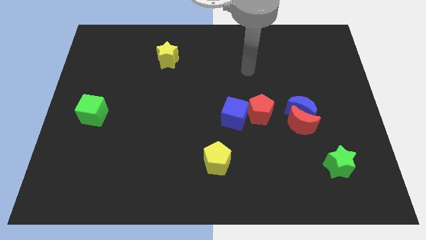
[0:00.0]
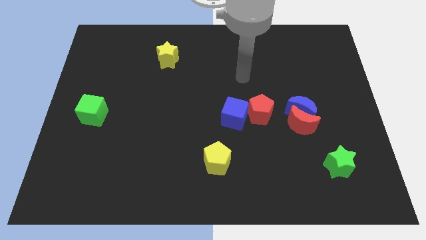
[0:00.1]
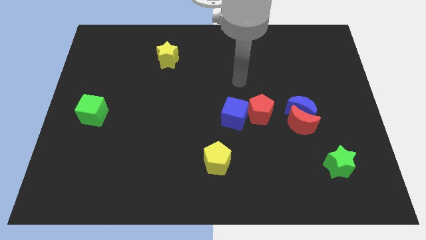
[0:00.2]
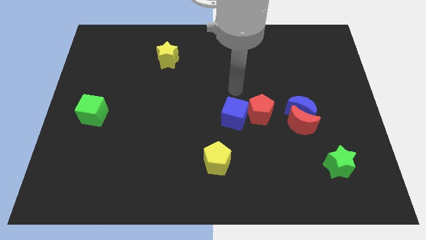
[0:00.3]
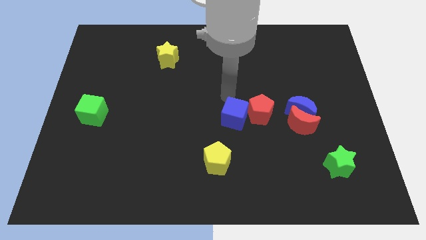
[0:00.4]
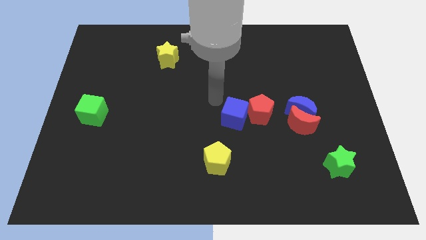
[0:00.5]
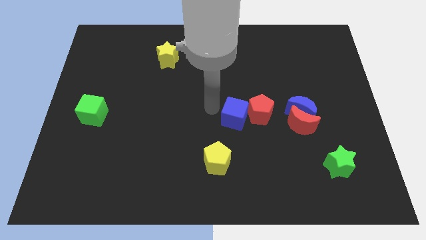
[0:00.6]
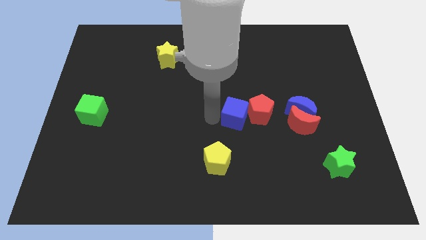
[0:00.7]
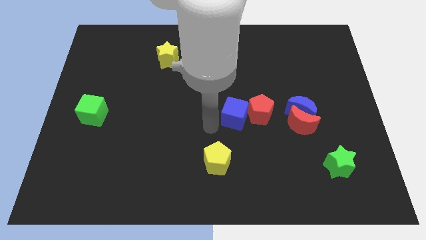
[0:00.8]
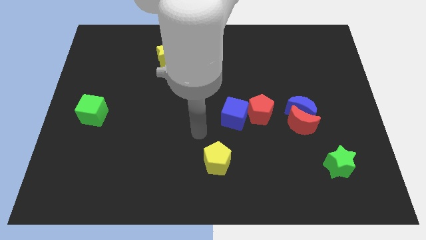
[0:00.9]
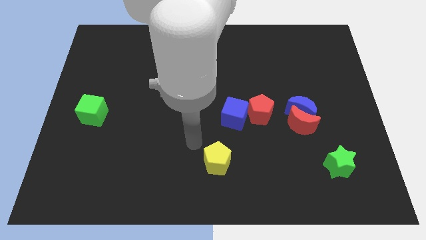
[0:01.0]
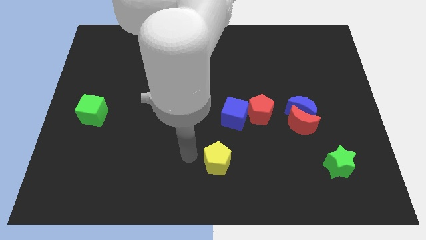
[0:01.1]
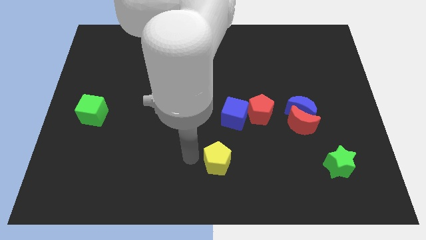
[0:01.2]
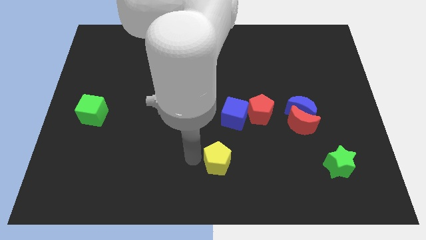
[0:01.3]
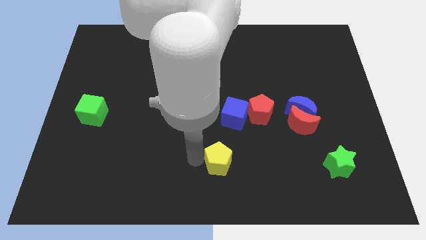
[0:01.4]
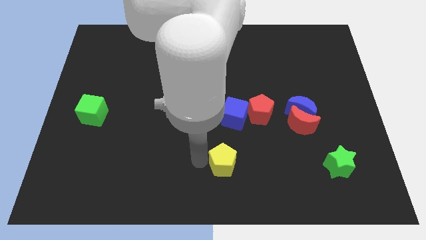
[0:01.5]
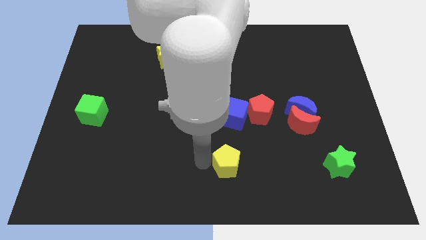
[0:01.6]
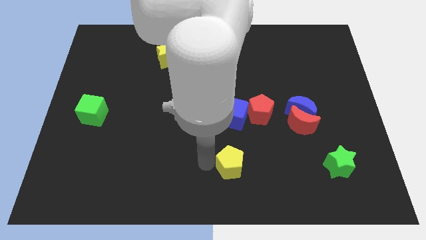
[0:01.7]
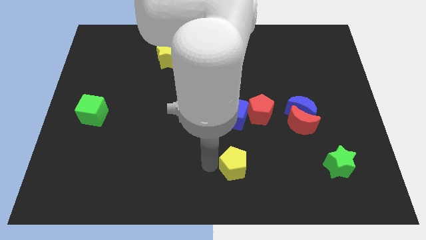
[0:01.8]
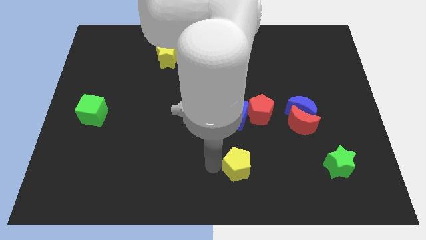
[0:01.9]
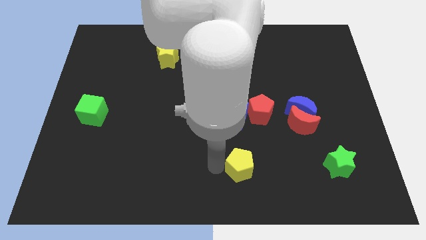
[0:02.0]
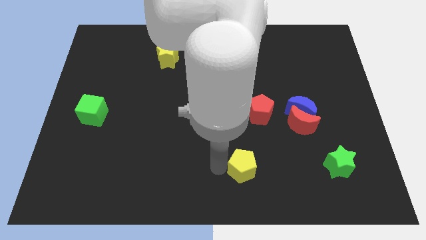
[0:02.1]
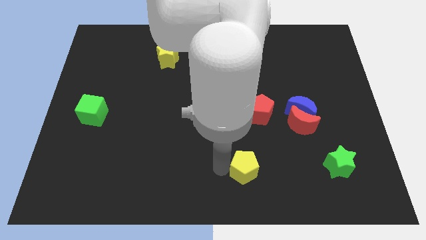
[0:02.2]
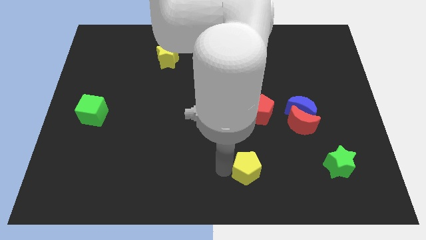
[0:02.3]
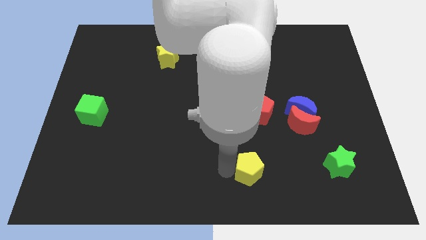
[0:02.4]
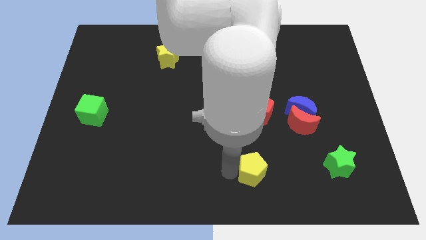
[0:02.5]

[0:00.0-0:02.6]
slightly slide the yellow pentagon to the right

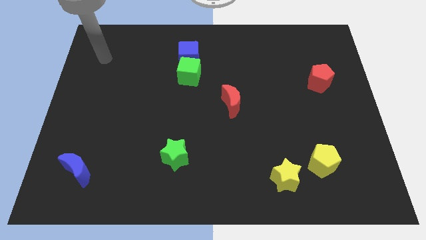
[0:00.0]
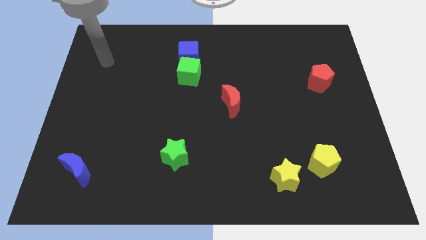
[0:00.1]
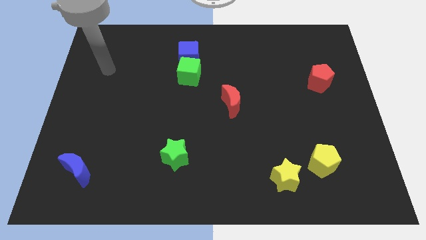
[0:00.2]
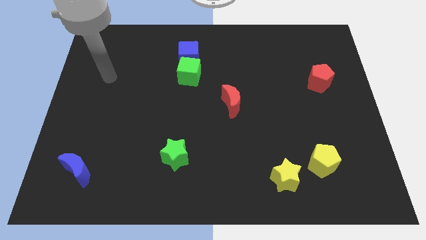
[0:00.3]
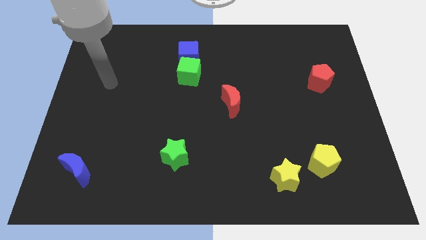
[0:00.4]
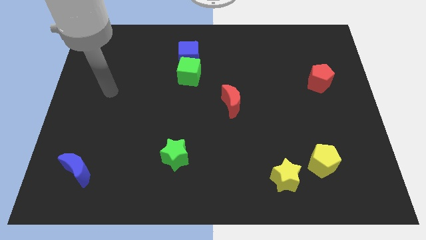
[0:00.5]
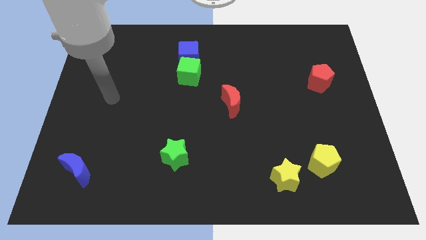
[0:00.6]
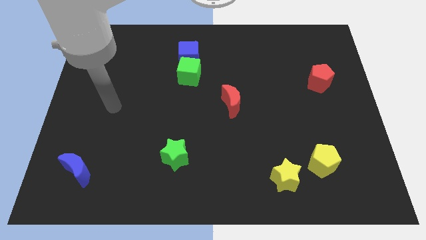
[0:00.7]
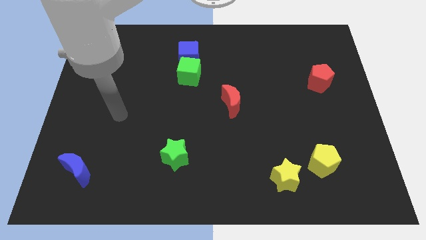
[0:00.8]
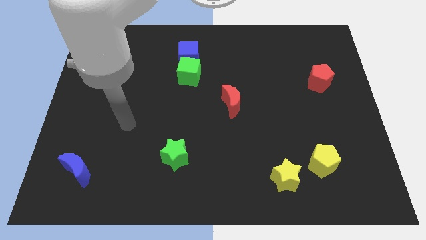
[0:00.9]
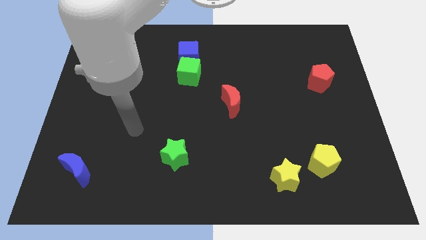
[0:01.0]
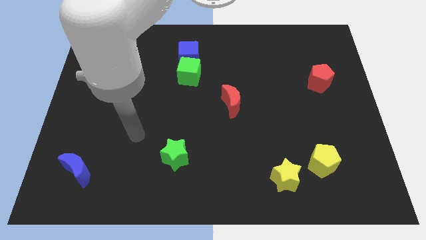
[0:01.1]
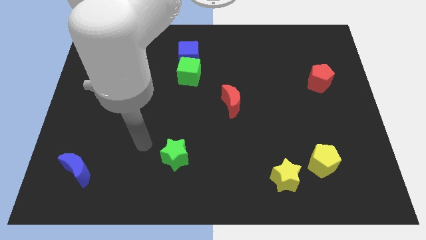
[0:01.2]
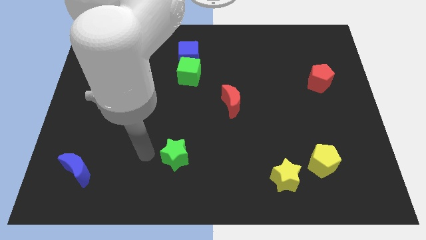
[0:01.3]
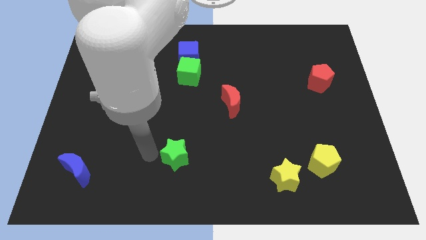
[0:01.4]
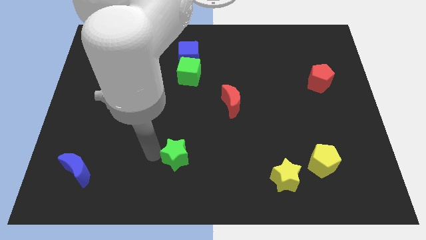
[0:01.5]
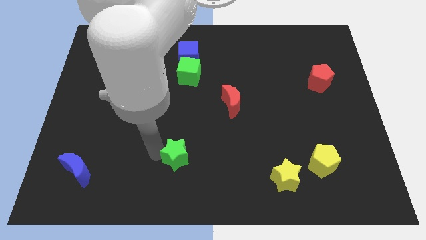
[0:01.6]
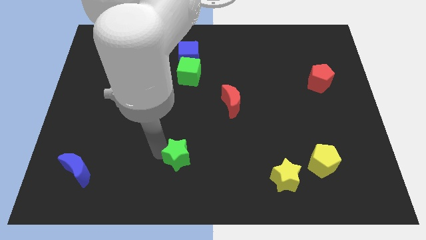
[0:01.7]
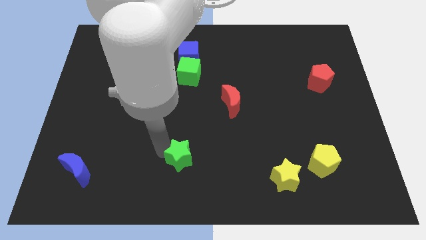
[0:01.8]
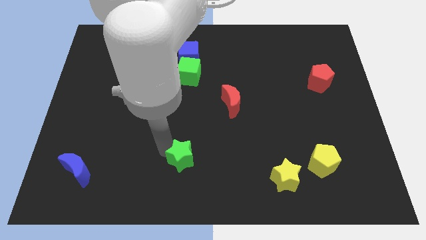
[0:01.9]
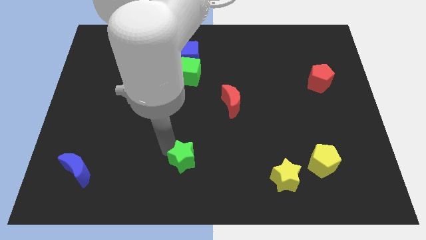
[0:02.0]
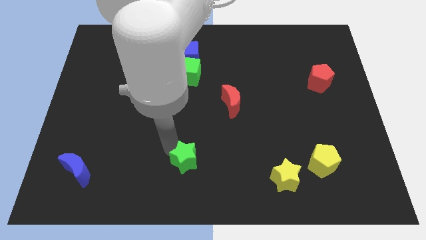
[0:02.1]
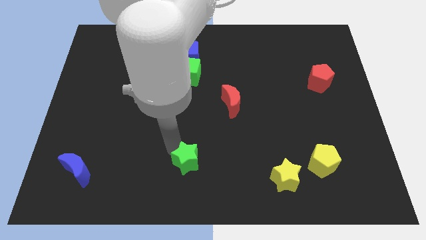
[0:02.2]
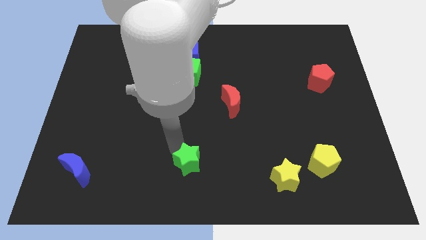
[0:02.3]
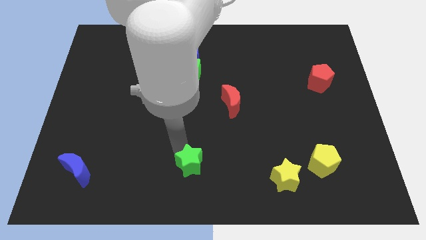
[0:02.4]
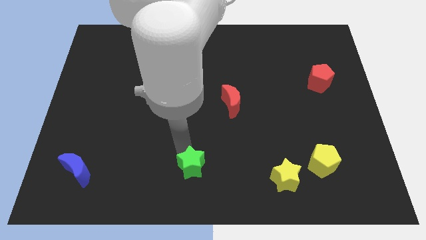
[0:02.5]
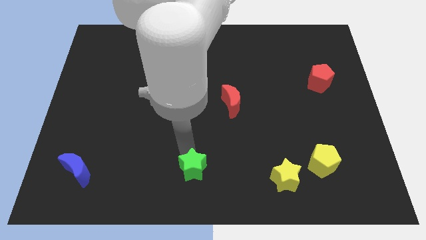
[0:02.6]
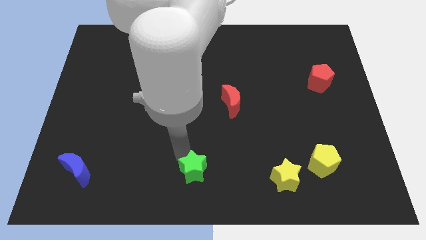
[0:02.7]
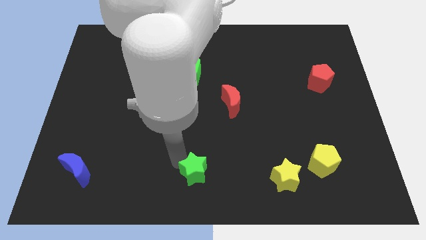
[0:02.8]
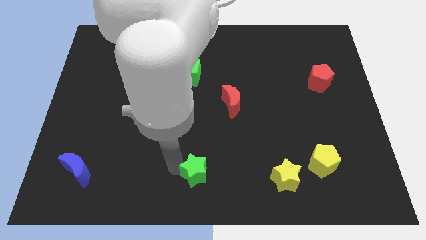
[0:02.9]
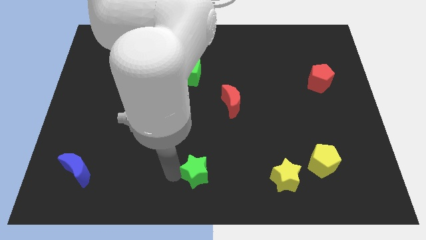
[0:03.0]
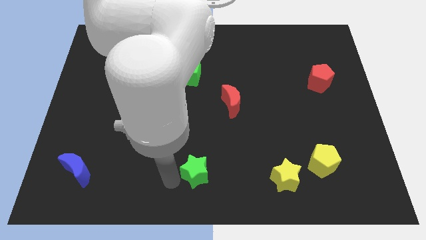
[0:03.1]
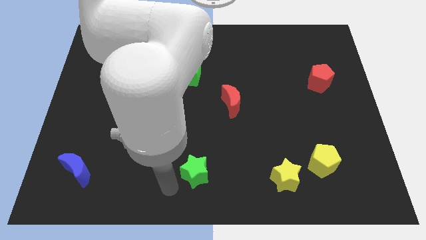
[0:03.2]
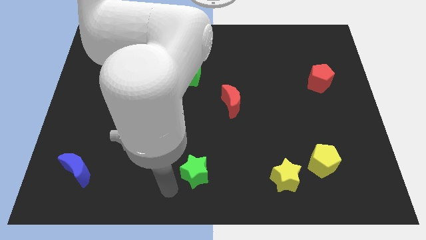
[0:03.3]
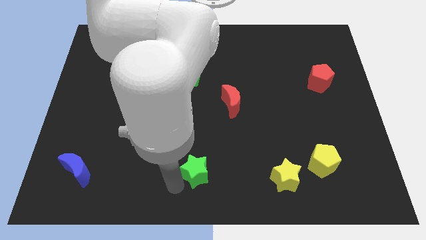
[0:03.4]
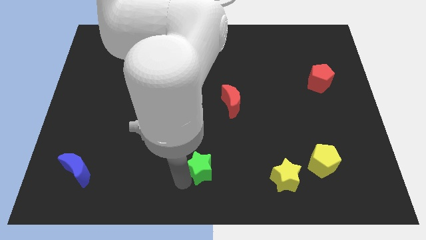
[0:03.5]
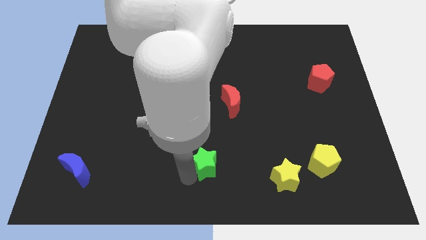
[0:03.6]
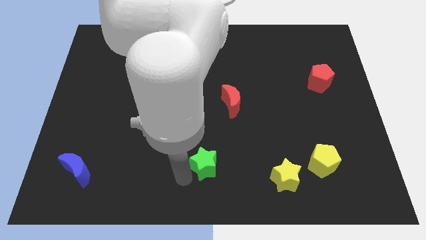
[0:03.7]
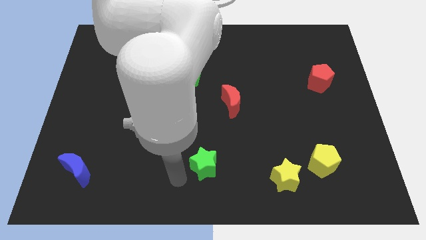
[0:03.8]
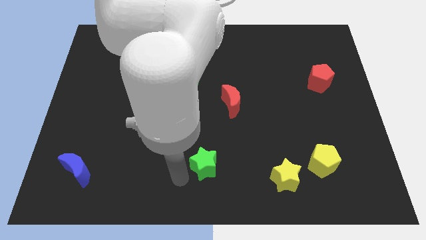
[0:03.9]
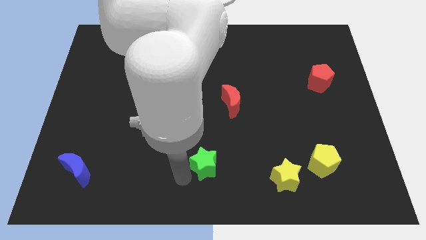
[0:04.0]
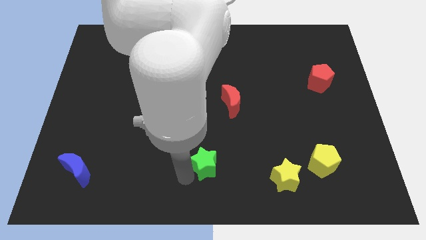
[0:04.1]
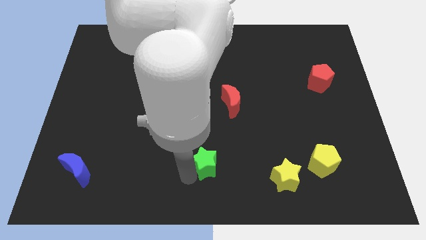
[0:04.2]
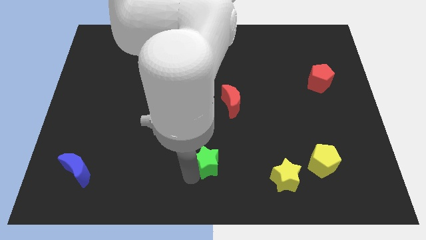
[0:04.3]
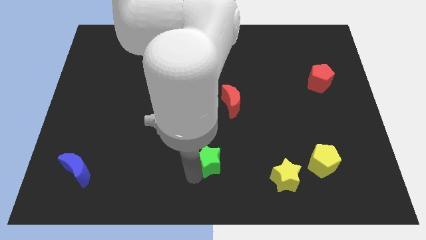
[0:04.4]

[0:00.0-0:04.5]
slide the green star to the right a little bit

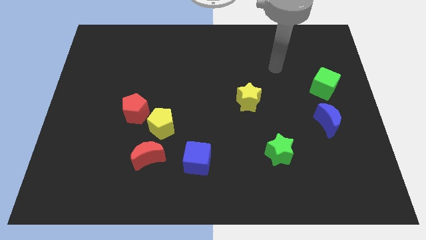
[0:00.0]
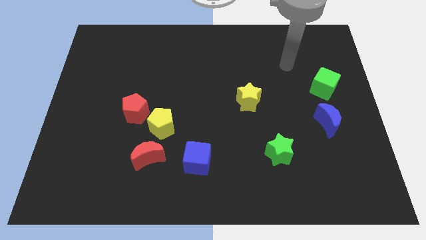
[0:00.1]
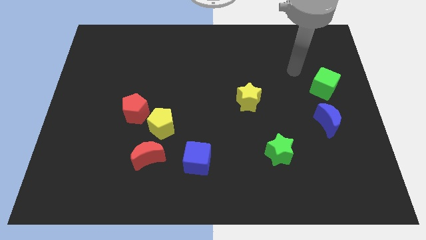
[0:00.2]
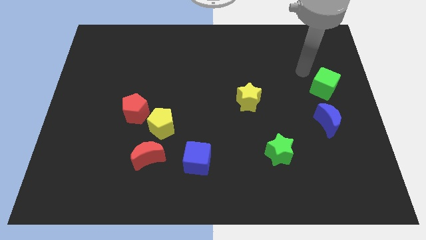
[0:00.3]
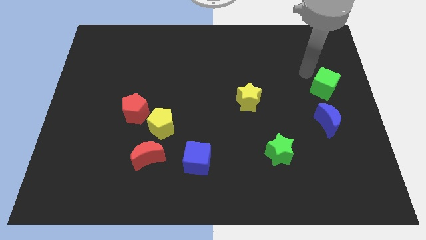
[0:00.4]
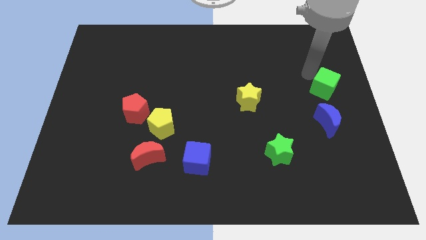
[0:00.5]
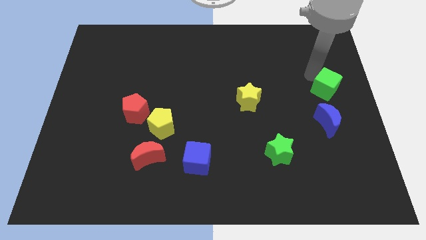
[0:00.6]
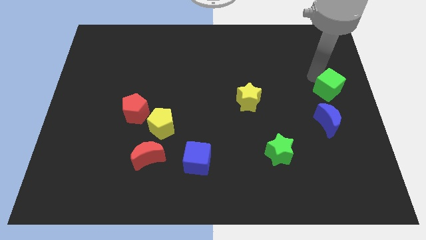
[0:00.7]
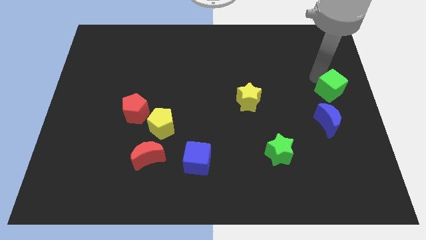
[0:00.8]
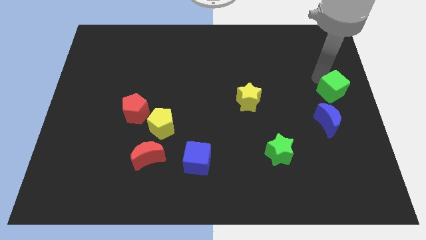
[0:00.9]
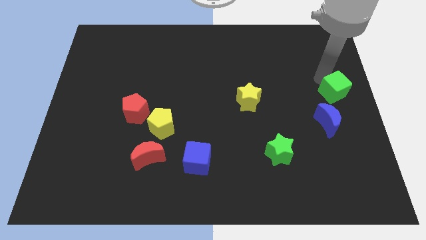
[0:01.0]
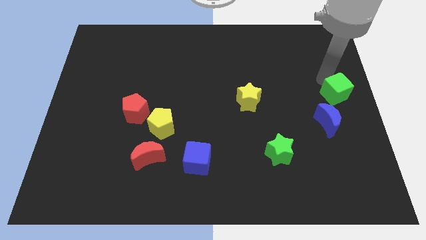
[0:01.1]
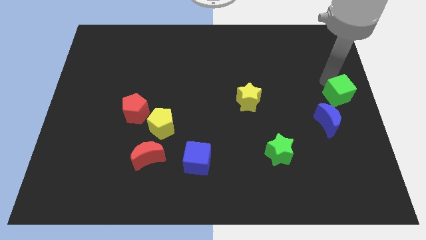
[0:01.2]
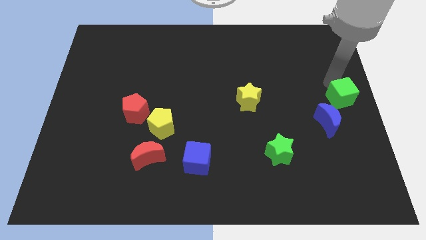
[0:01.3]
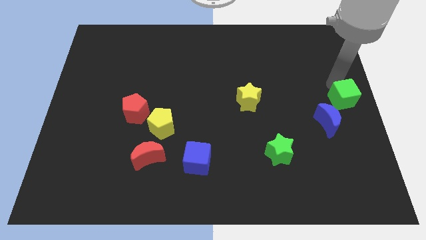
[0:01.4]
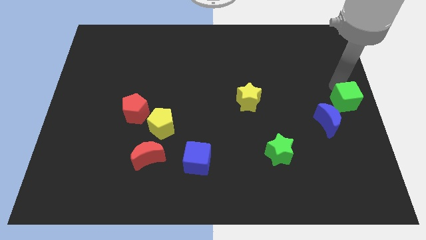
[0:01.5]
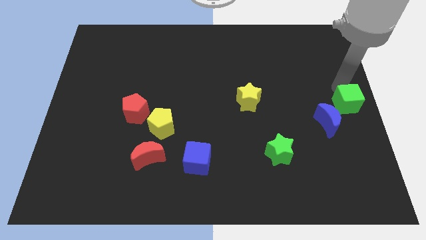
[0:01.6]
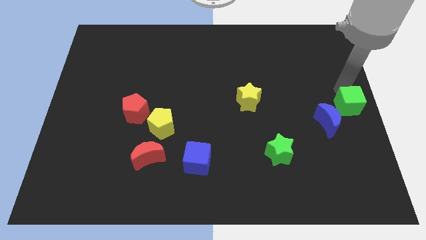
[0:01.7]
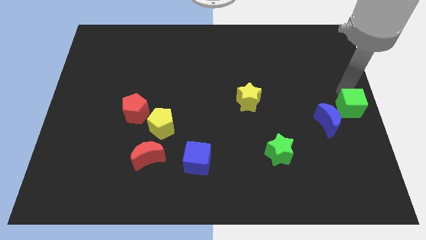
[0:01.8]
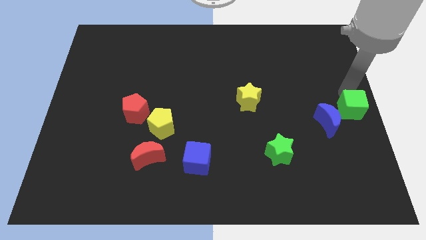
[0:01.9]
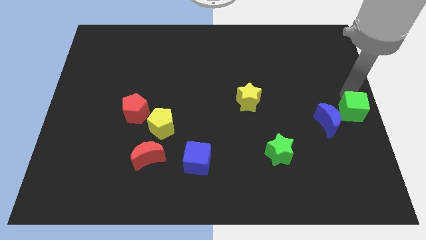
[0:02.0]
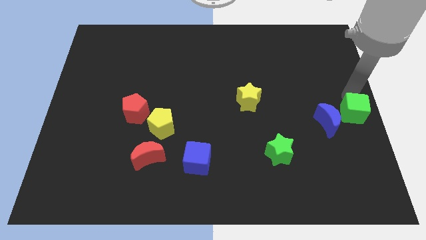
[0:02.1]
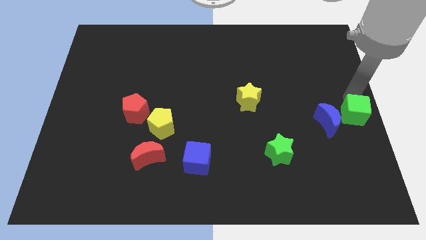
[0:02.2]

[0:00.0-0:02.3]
slide the green cube down a little
